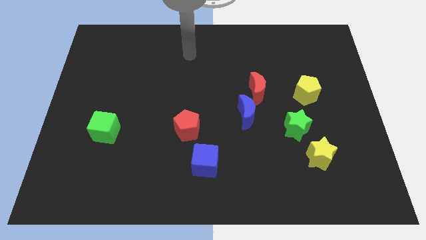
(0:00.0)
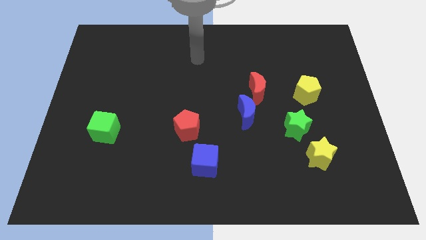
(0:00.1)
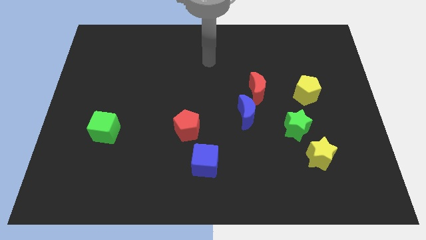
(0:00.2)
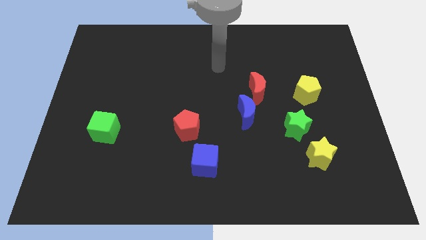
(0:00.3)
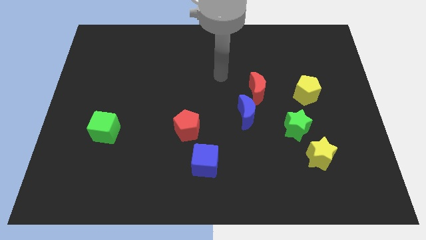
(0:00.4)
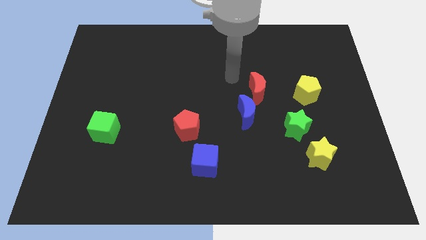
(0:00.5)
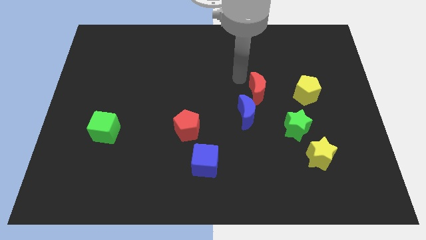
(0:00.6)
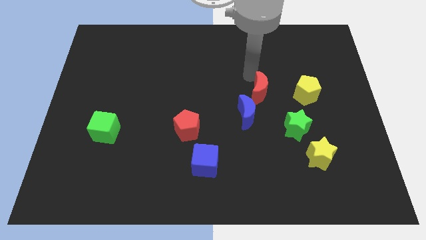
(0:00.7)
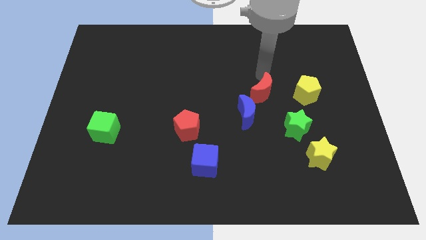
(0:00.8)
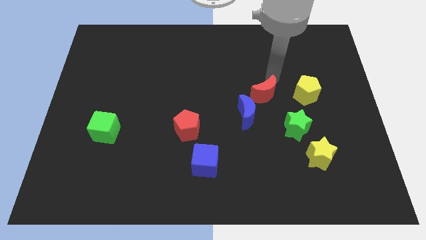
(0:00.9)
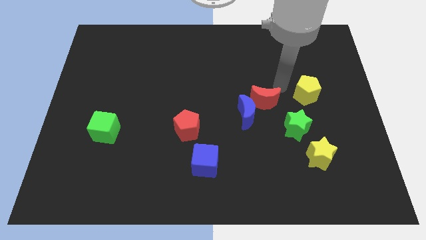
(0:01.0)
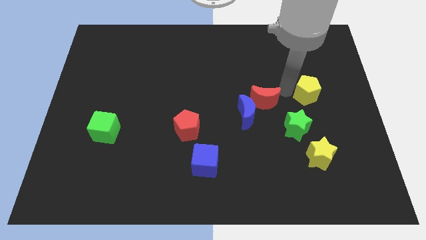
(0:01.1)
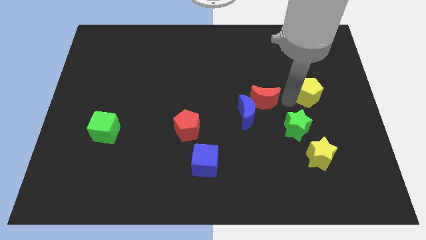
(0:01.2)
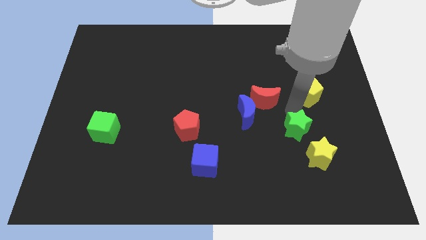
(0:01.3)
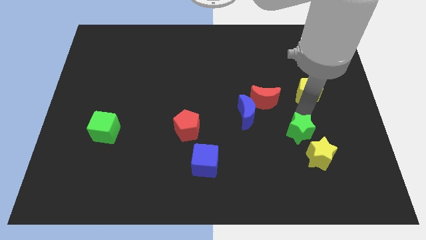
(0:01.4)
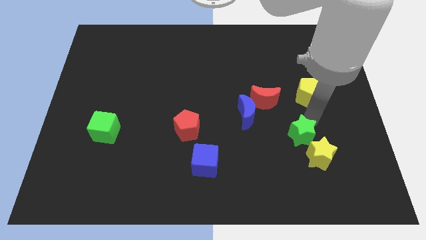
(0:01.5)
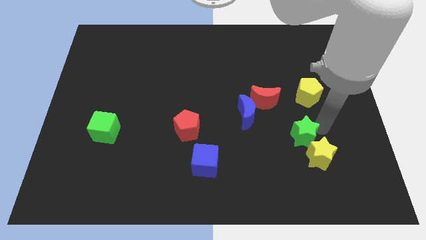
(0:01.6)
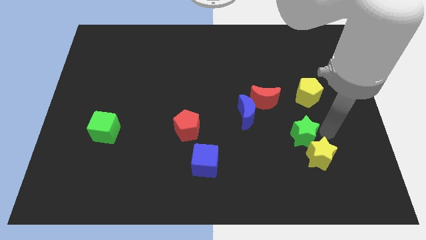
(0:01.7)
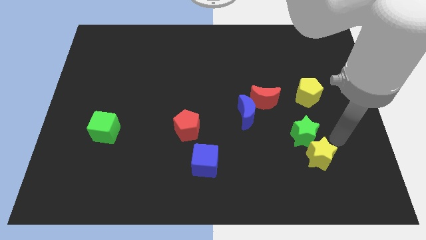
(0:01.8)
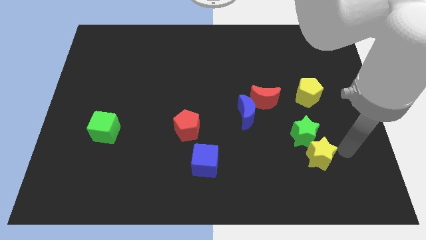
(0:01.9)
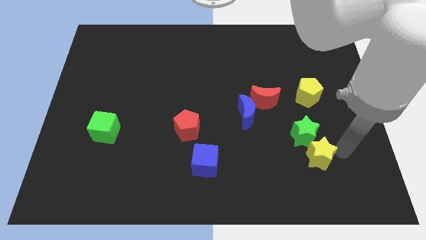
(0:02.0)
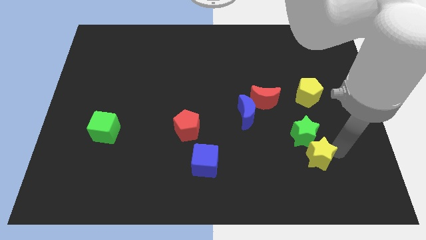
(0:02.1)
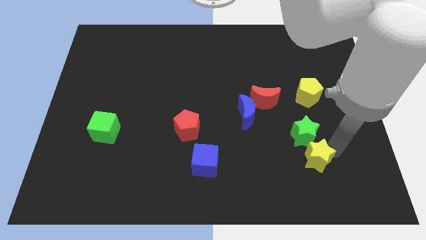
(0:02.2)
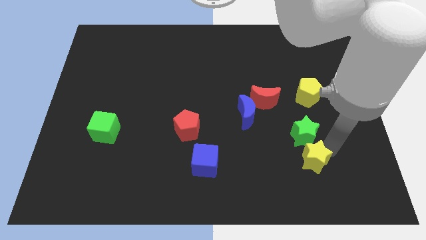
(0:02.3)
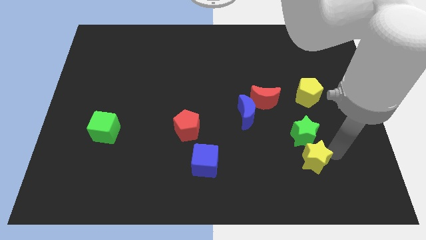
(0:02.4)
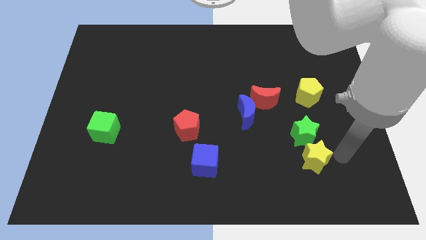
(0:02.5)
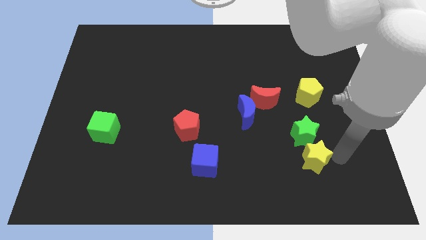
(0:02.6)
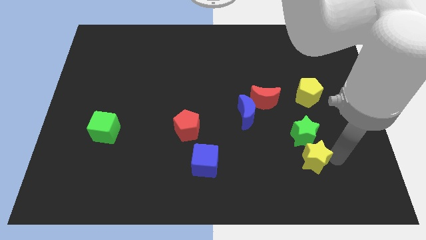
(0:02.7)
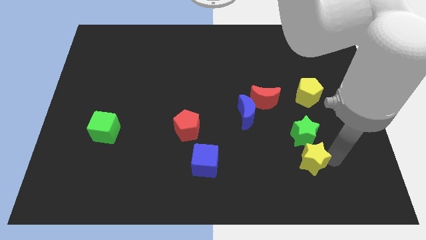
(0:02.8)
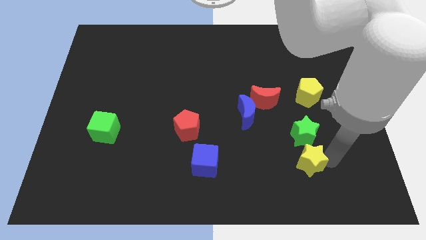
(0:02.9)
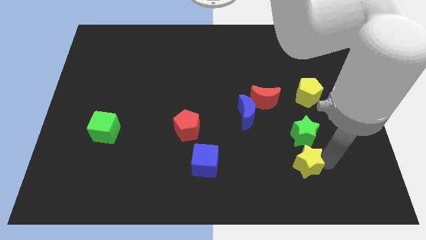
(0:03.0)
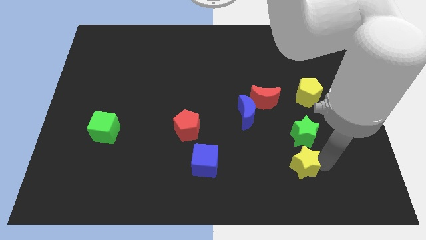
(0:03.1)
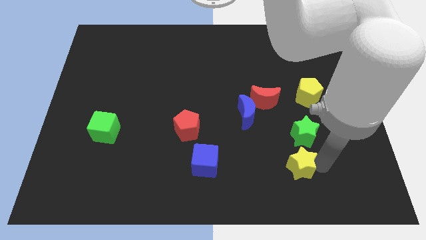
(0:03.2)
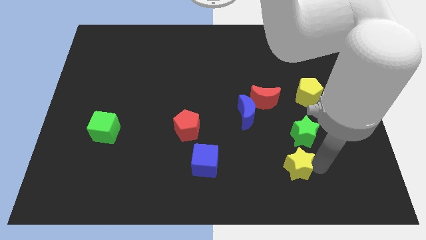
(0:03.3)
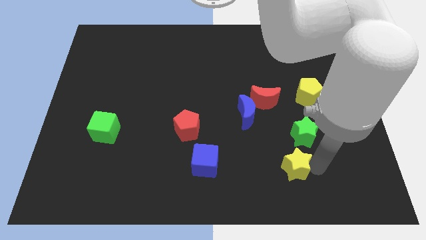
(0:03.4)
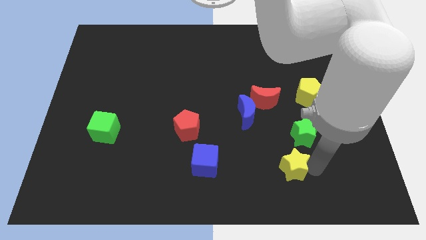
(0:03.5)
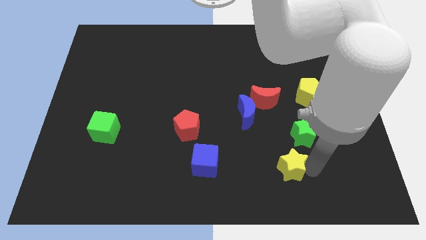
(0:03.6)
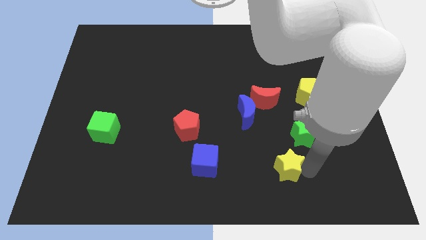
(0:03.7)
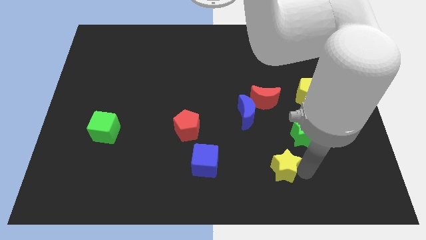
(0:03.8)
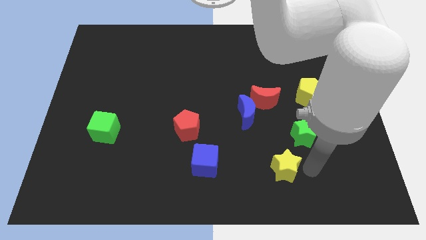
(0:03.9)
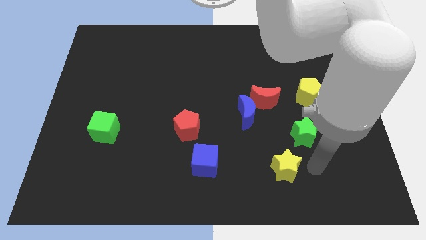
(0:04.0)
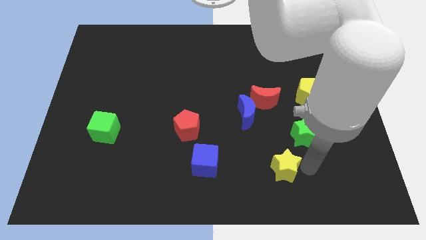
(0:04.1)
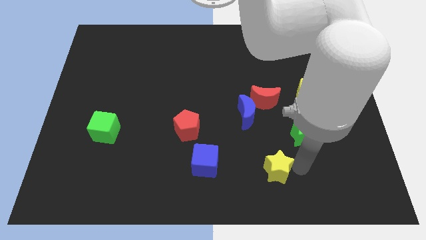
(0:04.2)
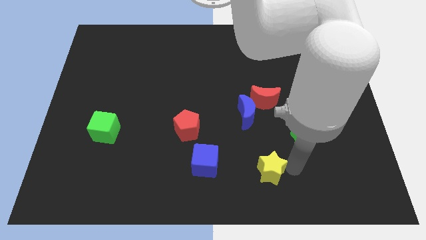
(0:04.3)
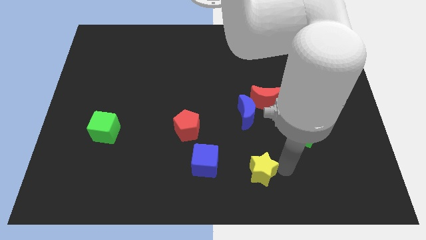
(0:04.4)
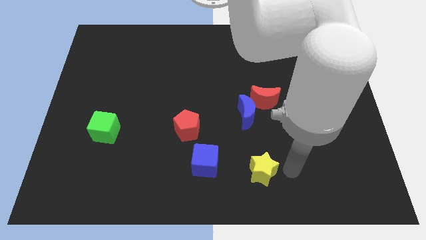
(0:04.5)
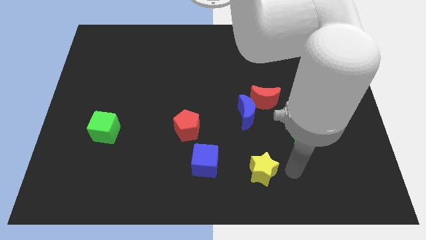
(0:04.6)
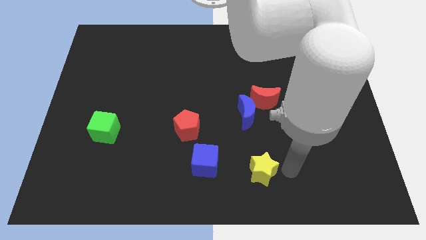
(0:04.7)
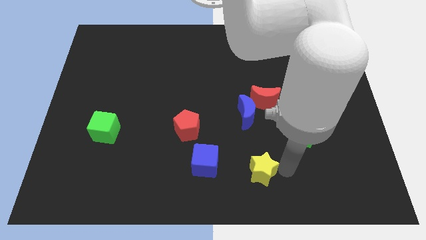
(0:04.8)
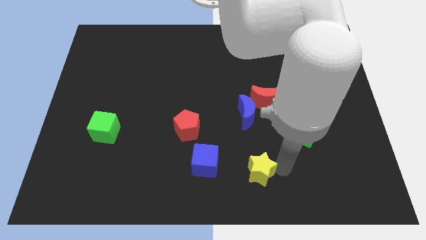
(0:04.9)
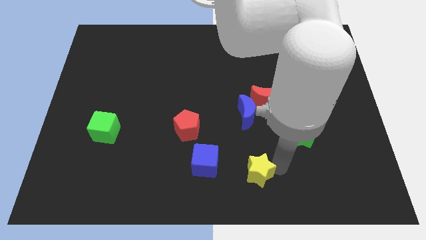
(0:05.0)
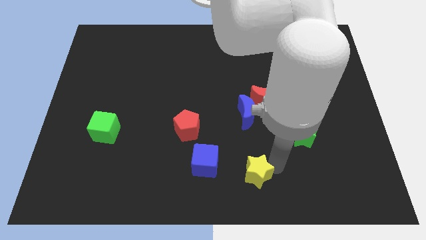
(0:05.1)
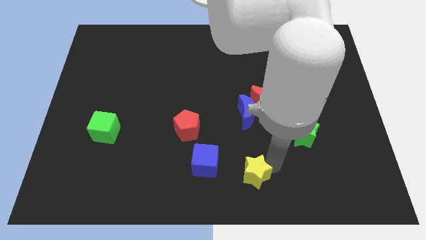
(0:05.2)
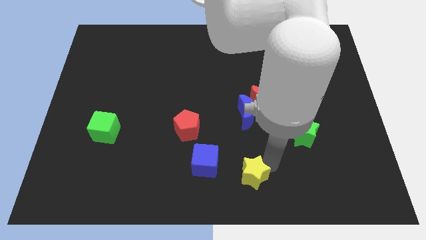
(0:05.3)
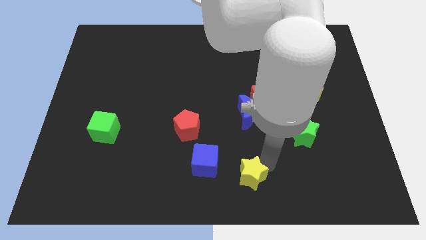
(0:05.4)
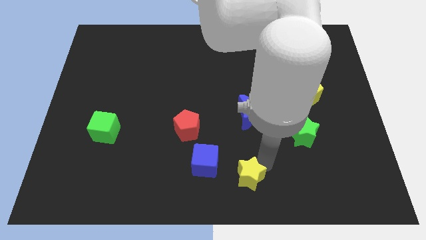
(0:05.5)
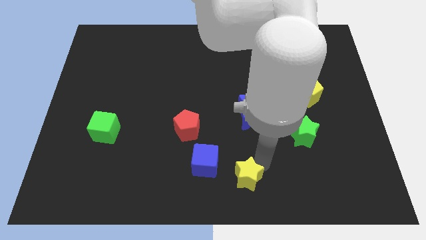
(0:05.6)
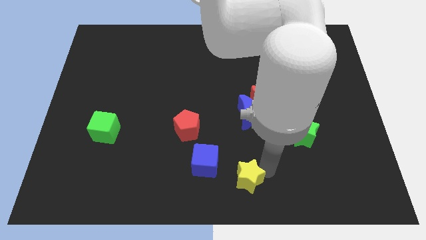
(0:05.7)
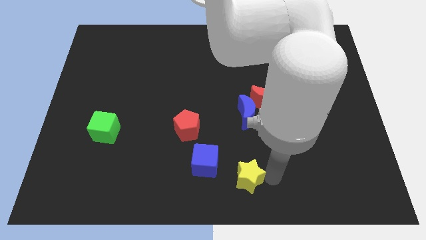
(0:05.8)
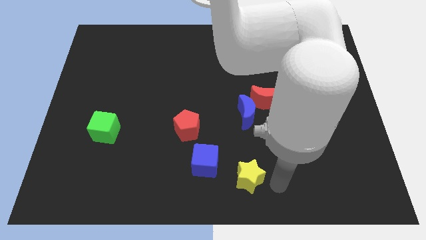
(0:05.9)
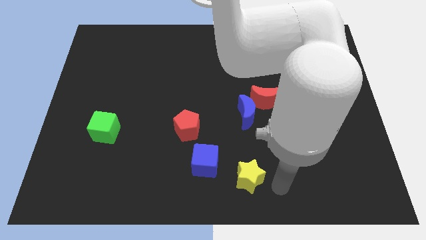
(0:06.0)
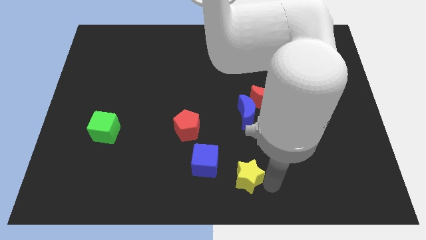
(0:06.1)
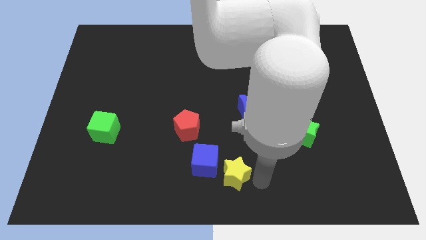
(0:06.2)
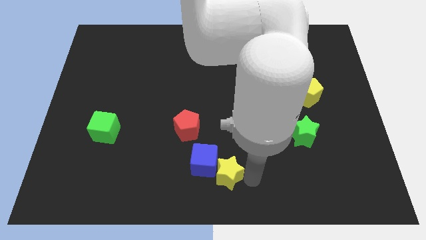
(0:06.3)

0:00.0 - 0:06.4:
put the yellow star close to the blue cube
